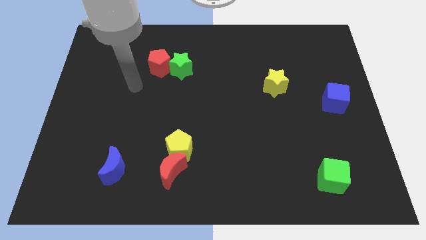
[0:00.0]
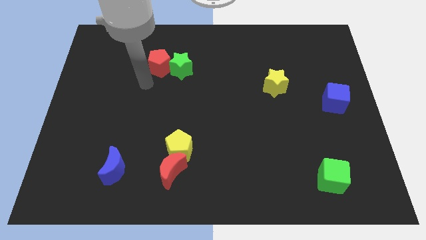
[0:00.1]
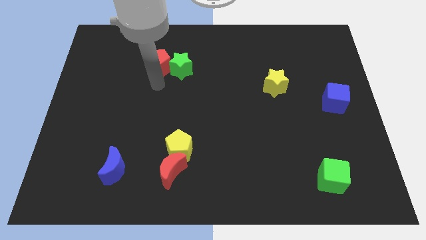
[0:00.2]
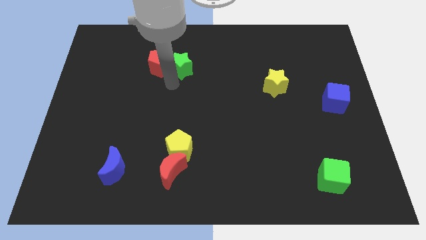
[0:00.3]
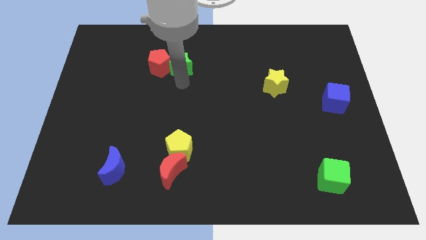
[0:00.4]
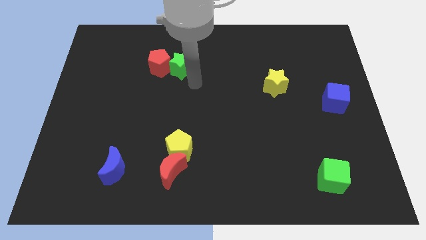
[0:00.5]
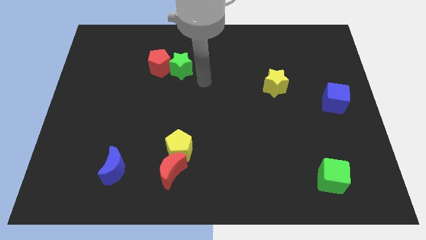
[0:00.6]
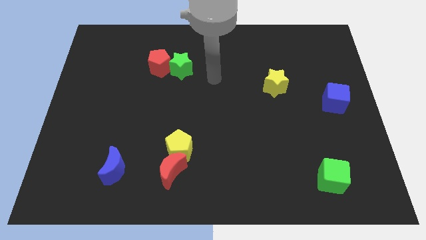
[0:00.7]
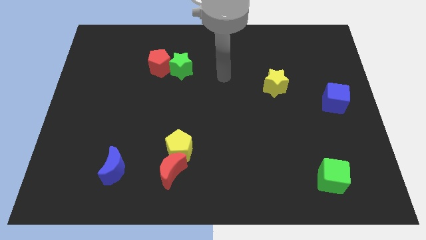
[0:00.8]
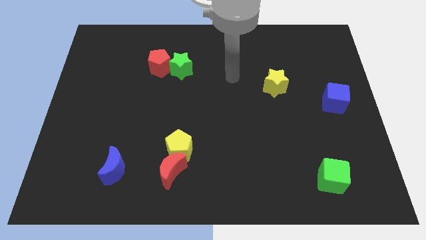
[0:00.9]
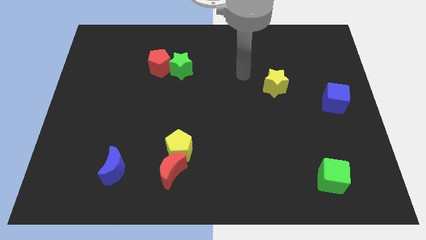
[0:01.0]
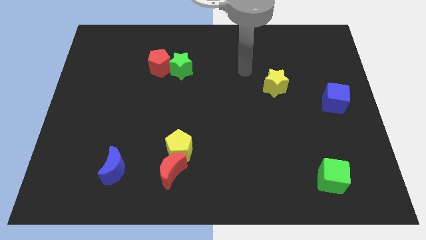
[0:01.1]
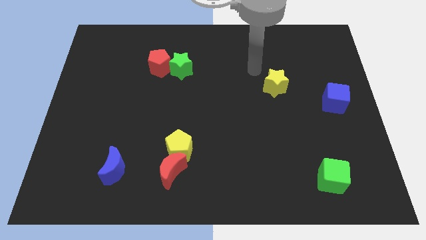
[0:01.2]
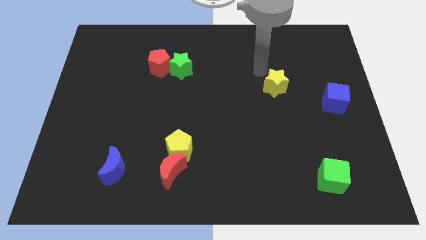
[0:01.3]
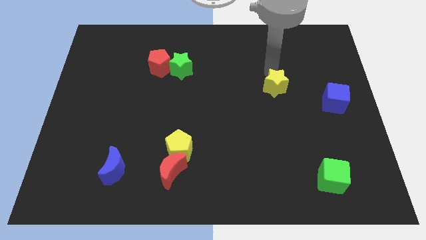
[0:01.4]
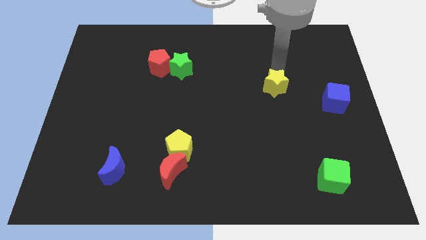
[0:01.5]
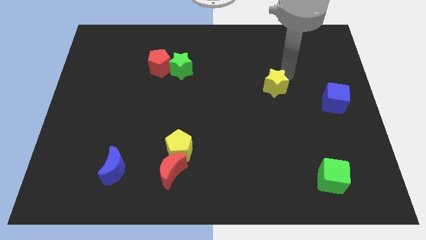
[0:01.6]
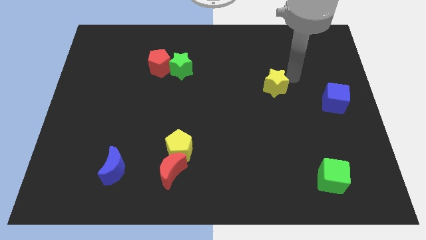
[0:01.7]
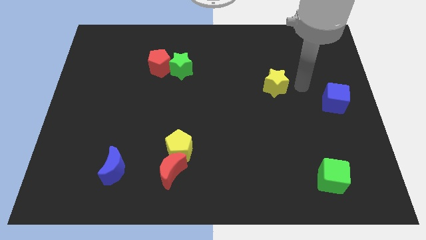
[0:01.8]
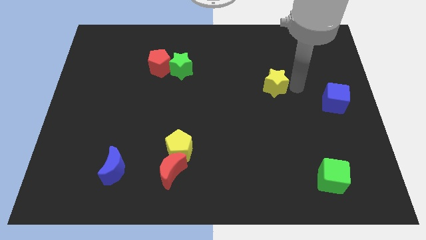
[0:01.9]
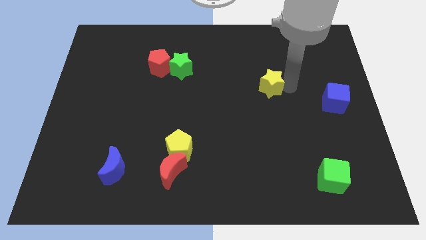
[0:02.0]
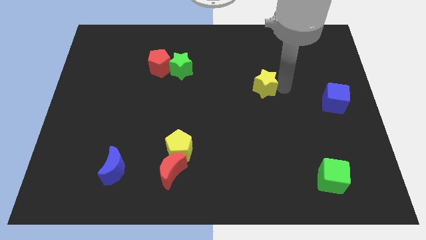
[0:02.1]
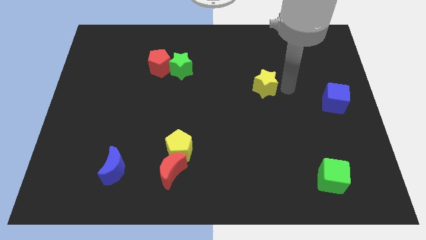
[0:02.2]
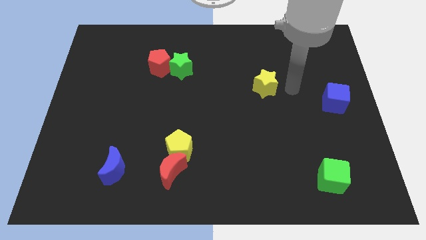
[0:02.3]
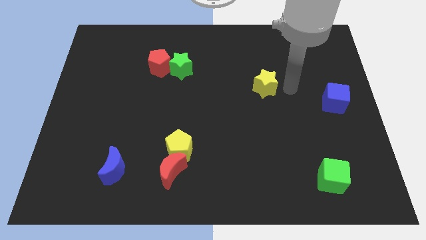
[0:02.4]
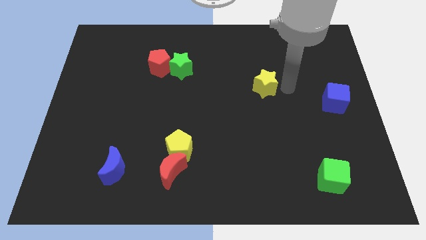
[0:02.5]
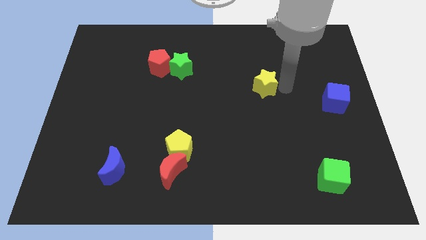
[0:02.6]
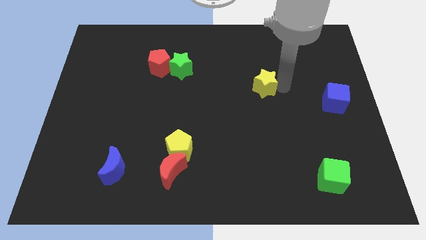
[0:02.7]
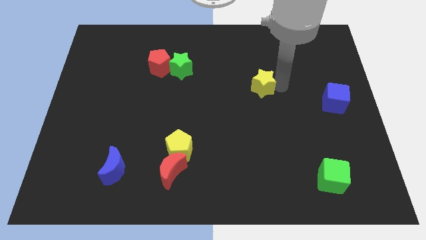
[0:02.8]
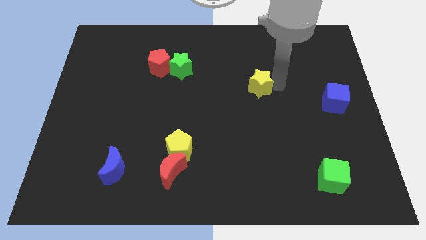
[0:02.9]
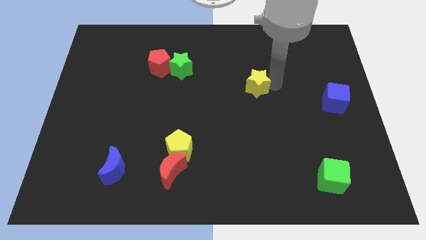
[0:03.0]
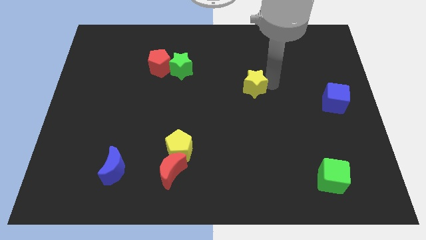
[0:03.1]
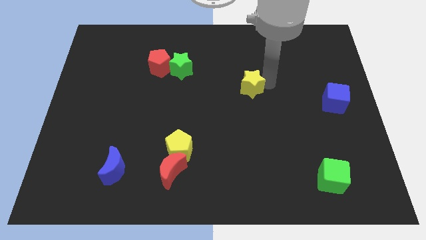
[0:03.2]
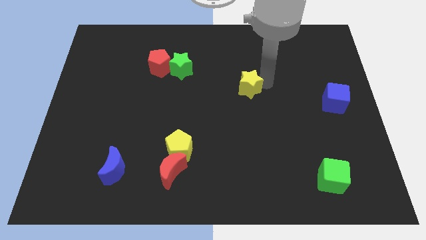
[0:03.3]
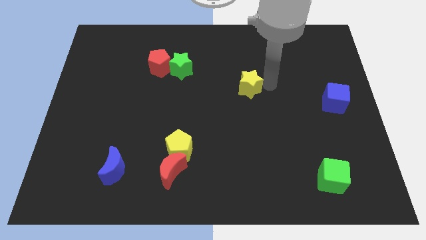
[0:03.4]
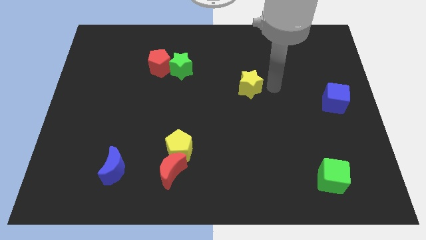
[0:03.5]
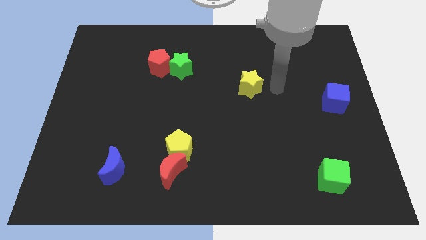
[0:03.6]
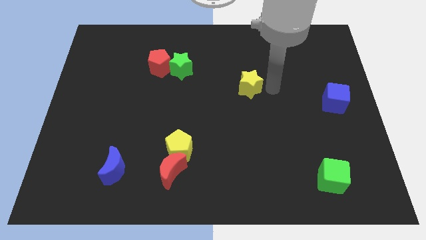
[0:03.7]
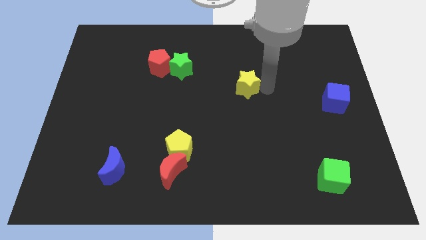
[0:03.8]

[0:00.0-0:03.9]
push the yellow star a little to the left

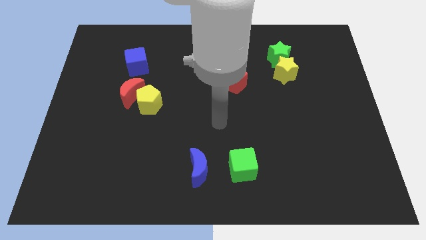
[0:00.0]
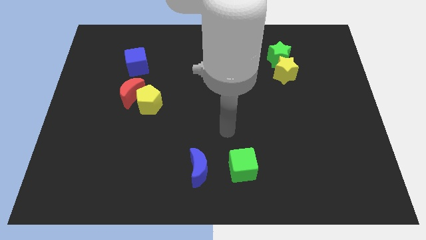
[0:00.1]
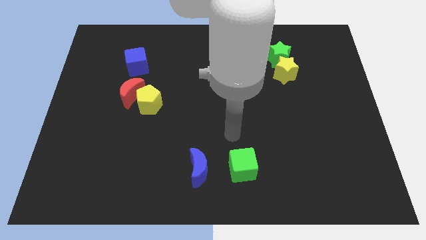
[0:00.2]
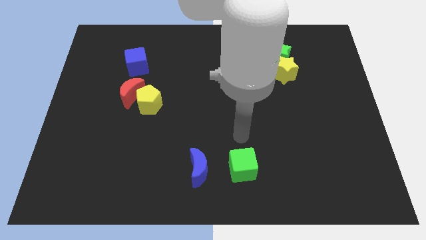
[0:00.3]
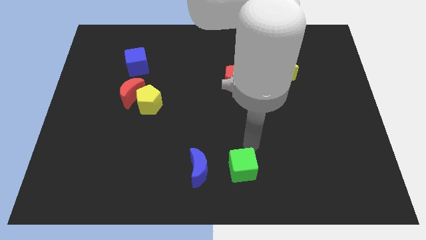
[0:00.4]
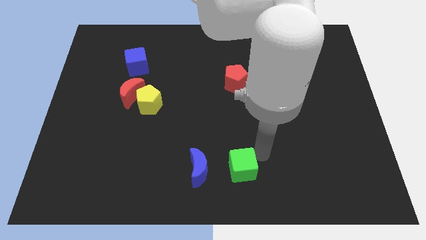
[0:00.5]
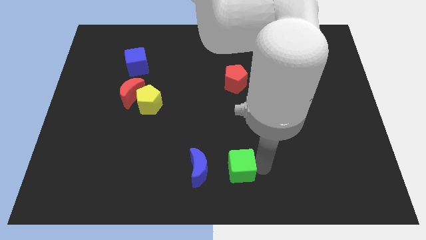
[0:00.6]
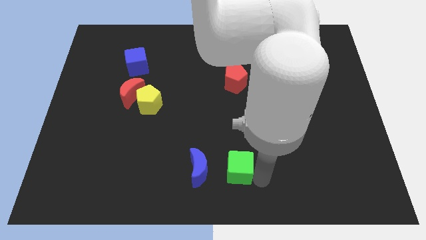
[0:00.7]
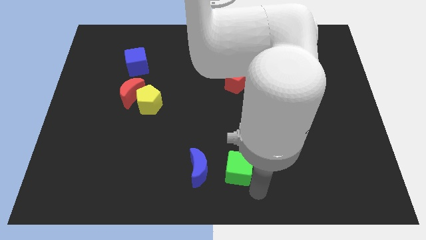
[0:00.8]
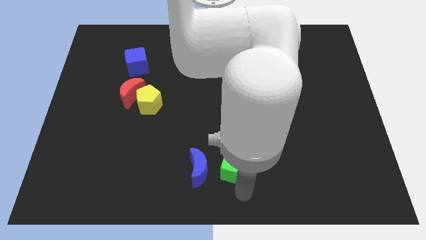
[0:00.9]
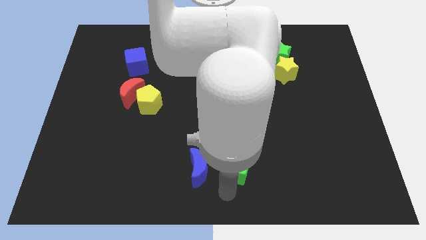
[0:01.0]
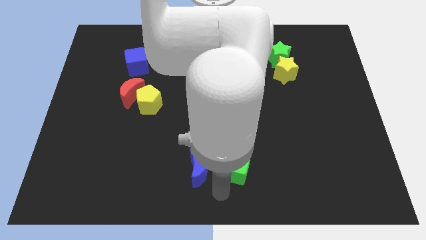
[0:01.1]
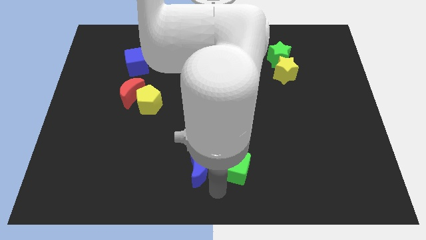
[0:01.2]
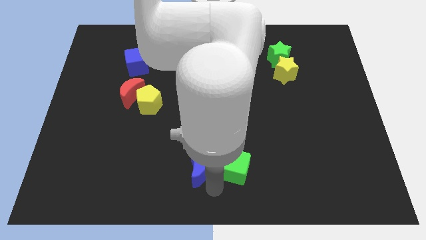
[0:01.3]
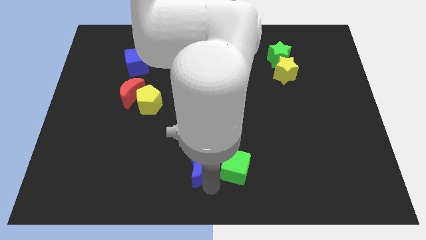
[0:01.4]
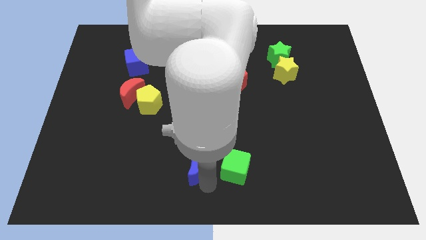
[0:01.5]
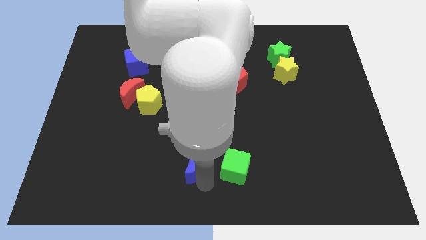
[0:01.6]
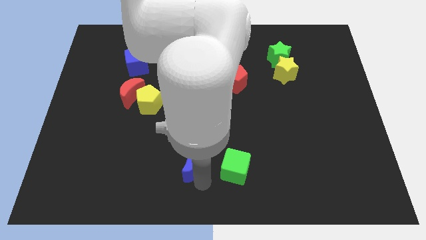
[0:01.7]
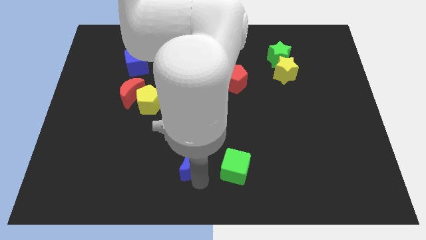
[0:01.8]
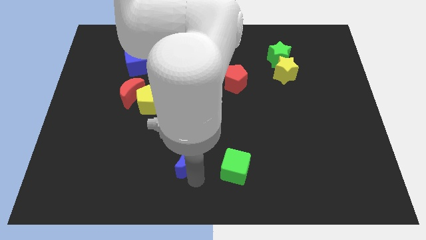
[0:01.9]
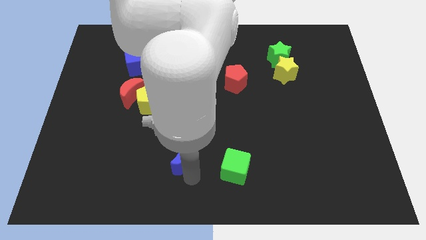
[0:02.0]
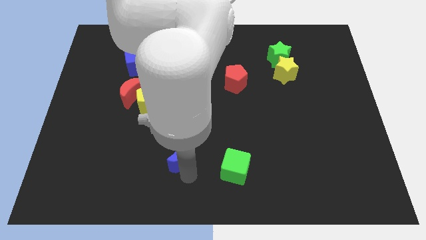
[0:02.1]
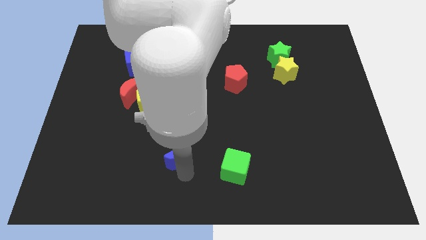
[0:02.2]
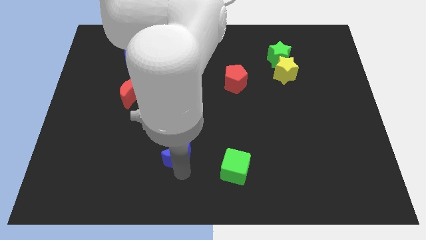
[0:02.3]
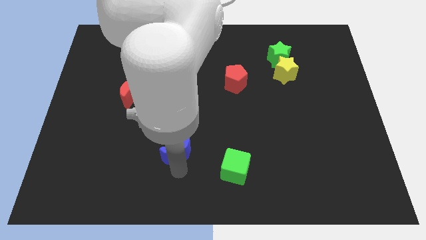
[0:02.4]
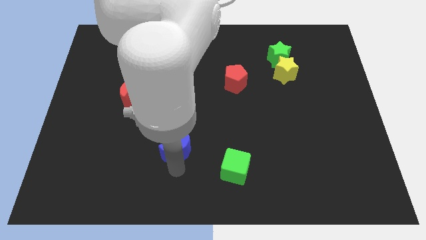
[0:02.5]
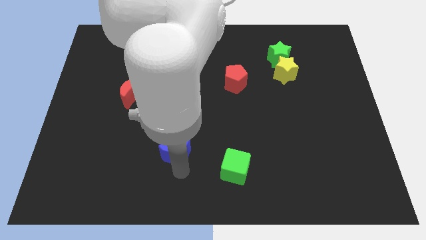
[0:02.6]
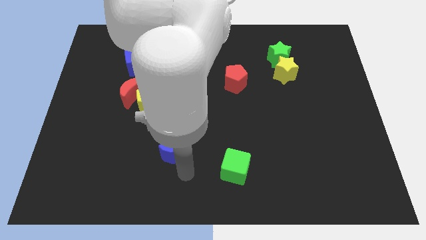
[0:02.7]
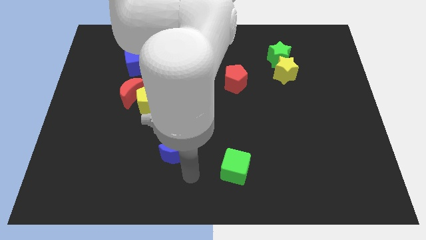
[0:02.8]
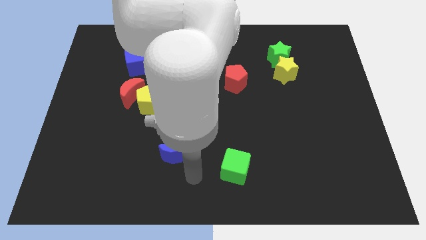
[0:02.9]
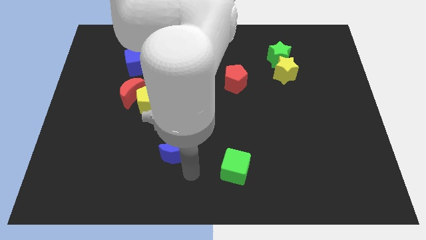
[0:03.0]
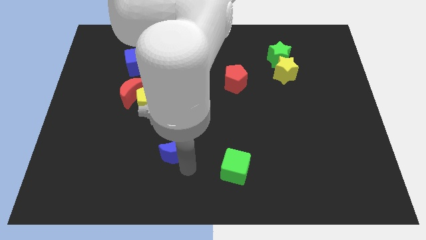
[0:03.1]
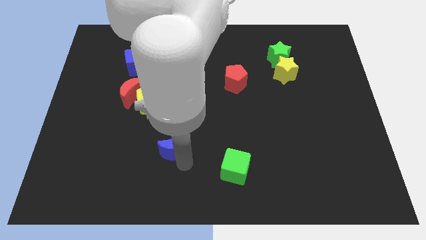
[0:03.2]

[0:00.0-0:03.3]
slide the blue moon a little bit diagonally upwards and to the left

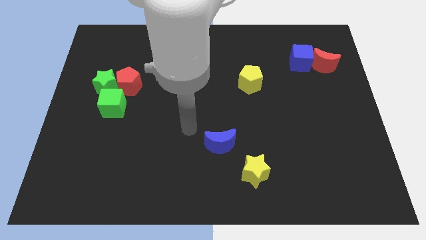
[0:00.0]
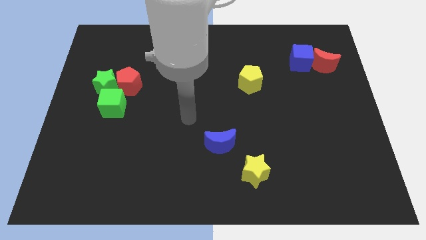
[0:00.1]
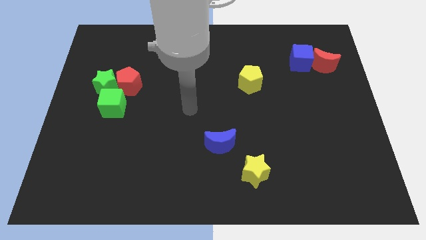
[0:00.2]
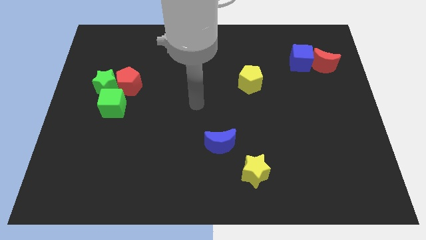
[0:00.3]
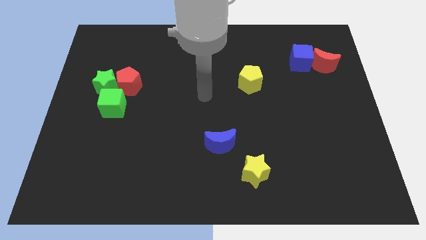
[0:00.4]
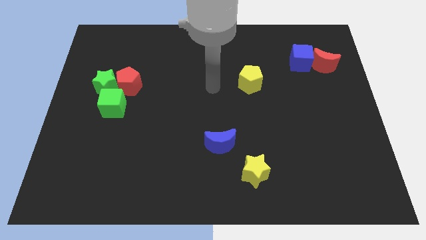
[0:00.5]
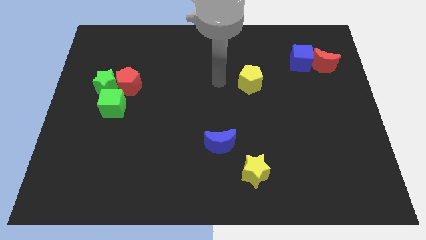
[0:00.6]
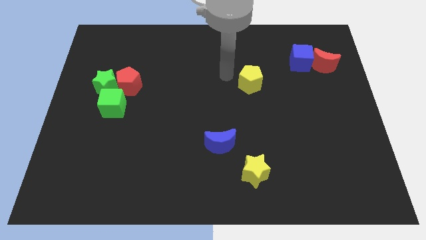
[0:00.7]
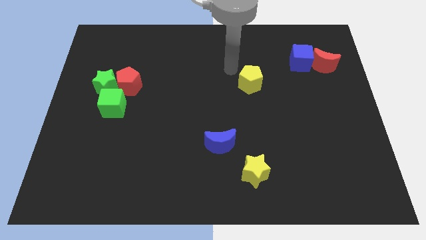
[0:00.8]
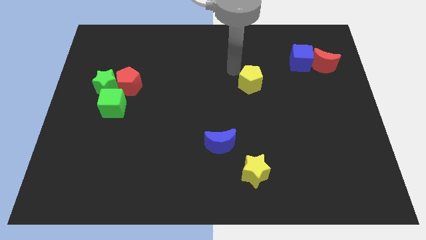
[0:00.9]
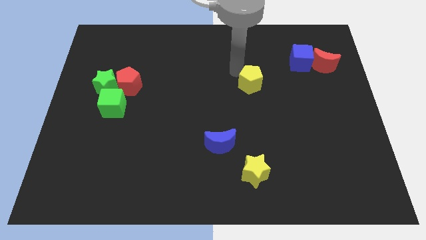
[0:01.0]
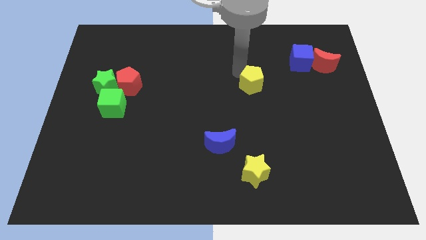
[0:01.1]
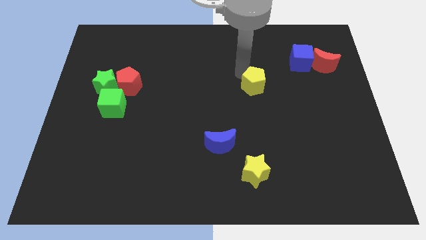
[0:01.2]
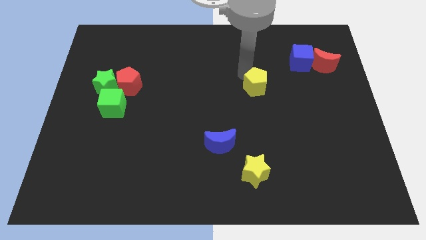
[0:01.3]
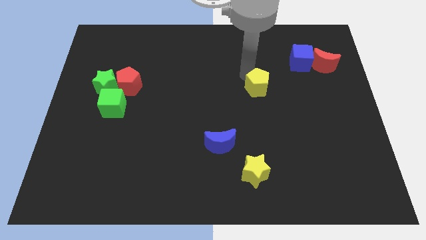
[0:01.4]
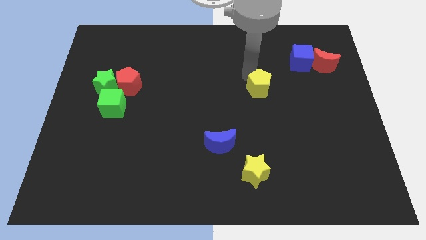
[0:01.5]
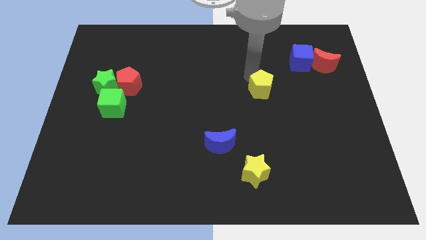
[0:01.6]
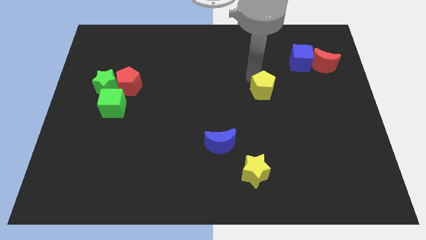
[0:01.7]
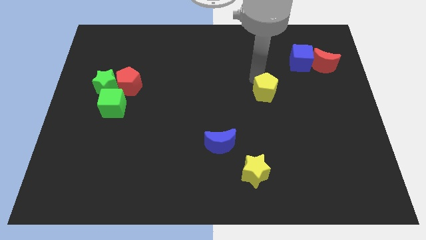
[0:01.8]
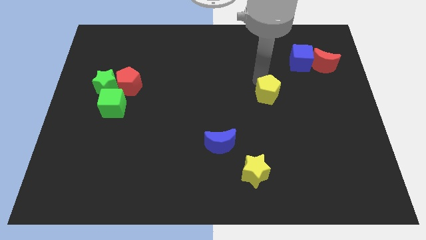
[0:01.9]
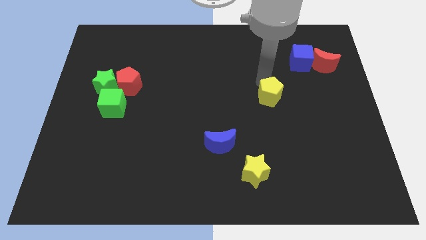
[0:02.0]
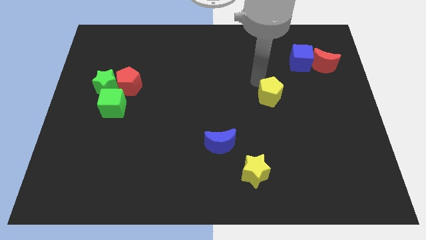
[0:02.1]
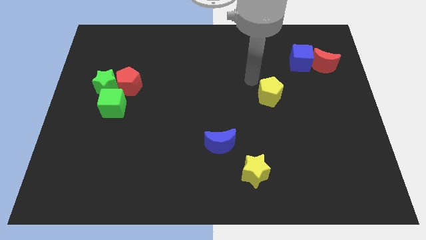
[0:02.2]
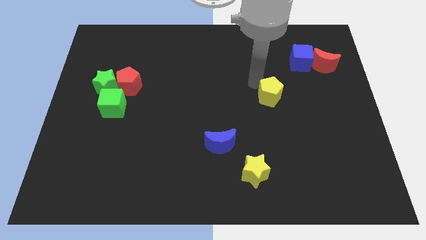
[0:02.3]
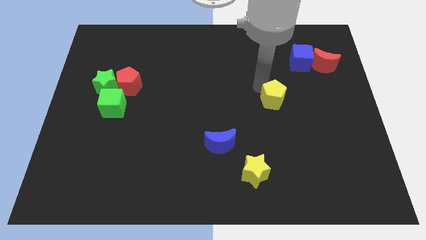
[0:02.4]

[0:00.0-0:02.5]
slide the yellow pentagon a bit down and right
